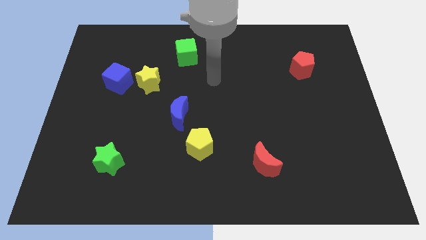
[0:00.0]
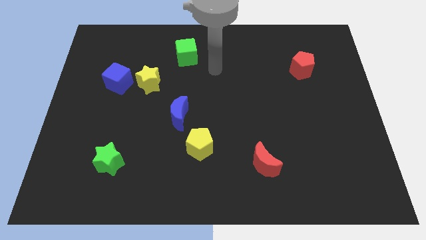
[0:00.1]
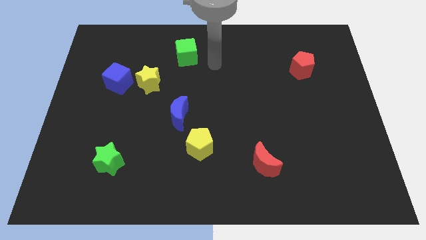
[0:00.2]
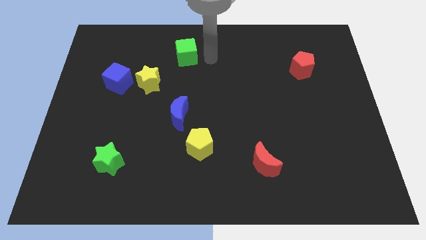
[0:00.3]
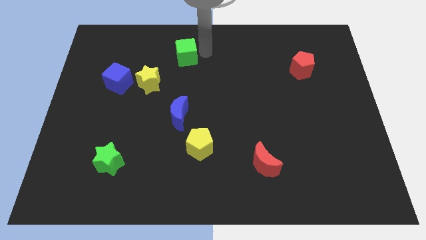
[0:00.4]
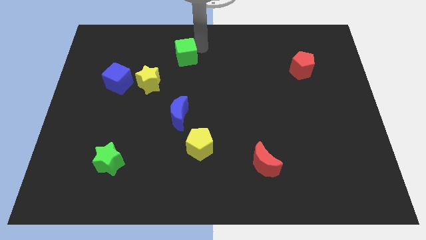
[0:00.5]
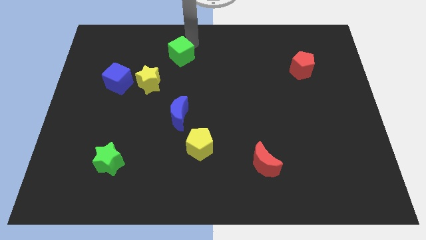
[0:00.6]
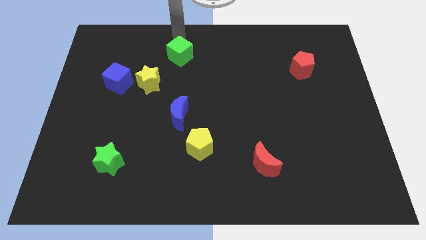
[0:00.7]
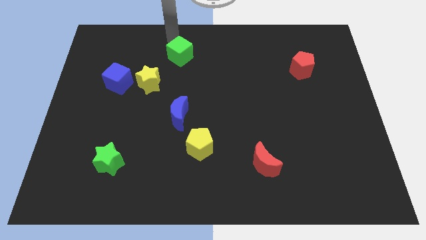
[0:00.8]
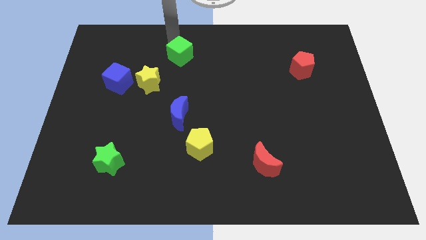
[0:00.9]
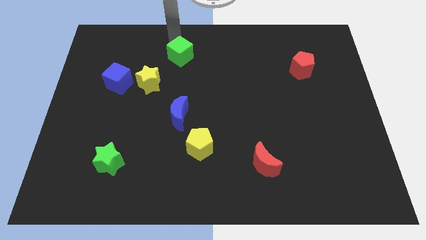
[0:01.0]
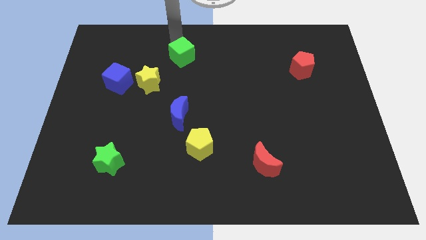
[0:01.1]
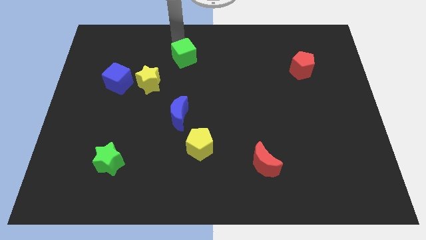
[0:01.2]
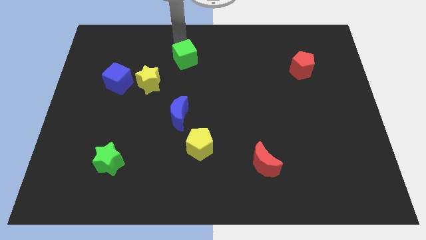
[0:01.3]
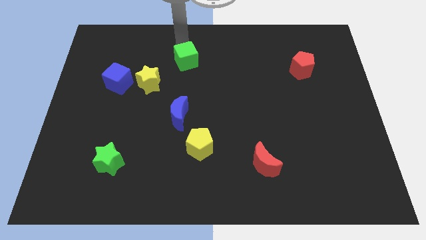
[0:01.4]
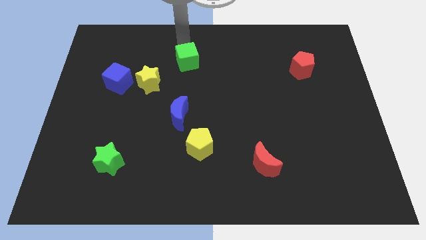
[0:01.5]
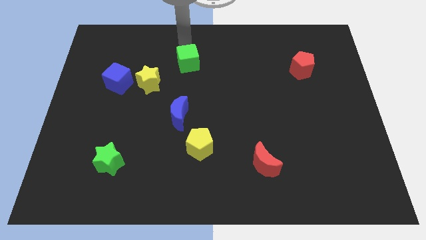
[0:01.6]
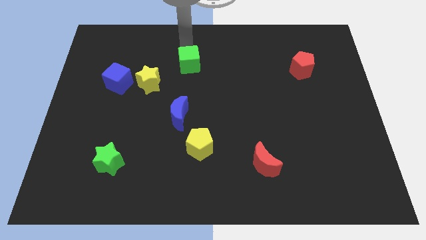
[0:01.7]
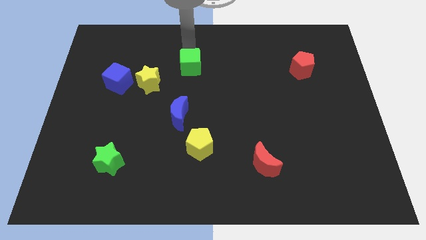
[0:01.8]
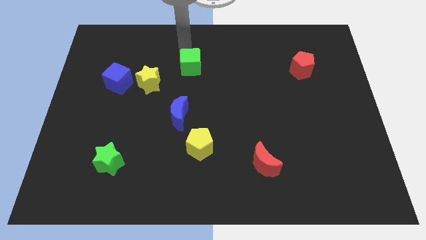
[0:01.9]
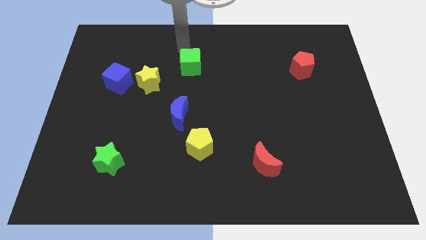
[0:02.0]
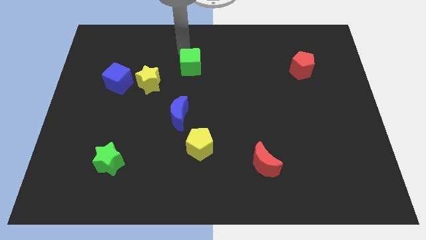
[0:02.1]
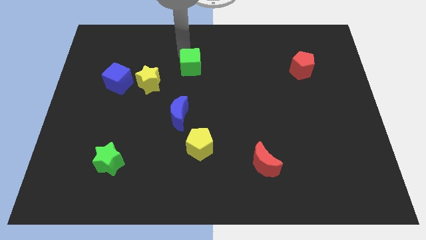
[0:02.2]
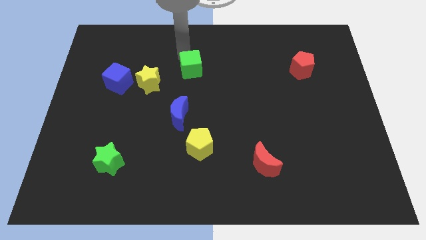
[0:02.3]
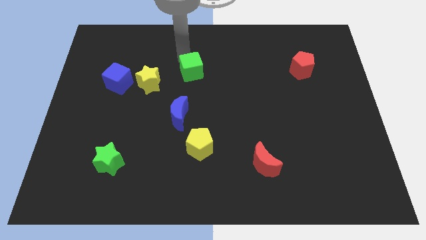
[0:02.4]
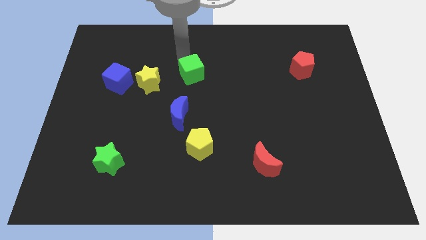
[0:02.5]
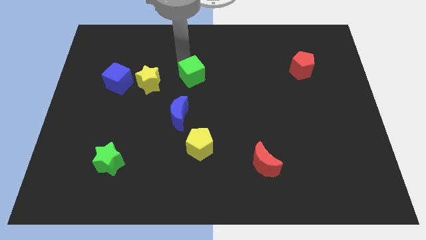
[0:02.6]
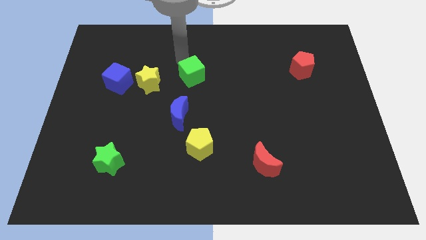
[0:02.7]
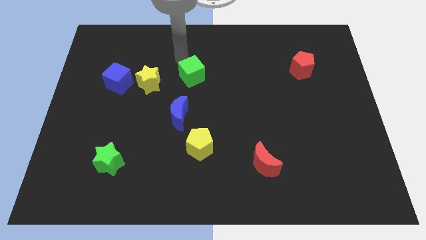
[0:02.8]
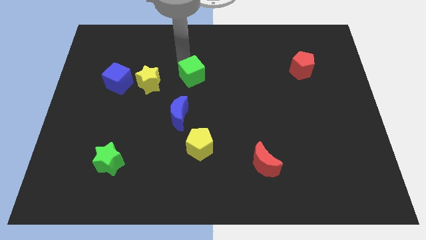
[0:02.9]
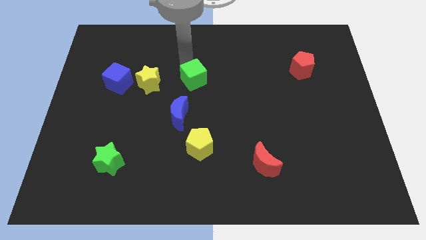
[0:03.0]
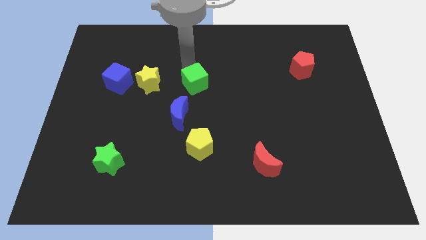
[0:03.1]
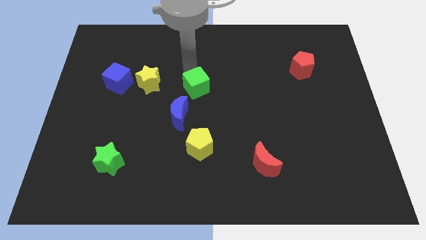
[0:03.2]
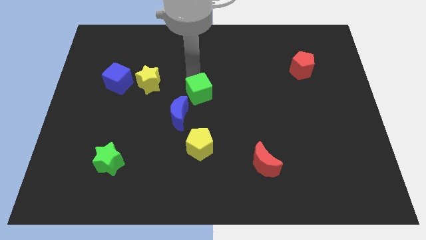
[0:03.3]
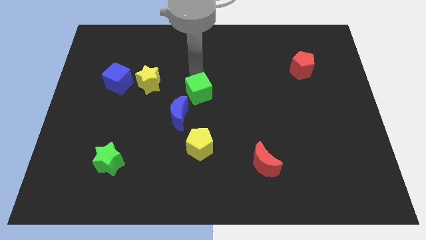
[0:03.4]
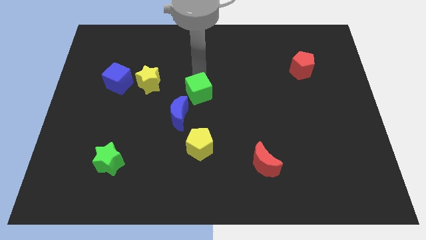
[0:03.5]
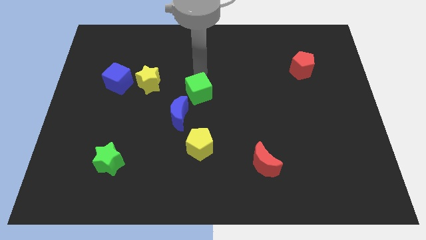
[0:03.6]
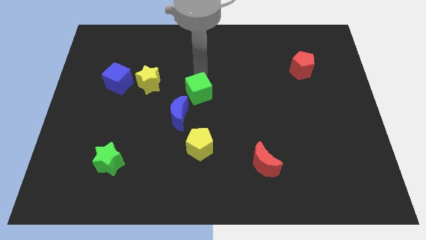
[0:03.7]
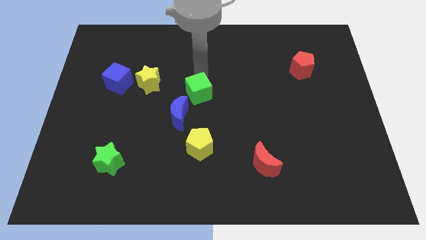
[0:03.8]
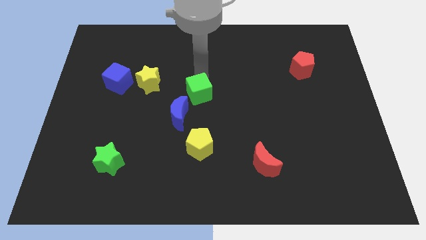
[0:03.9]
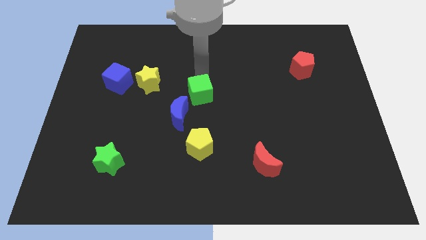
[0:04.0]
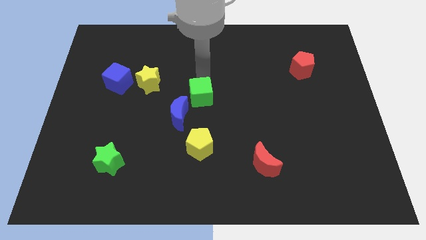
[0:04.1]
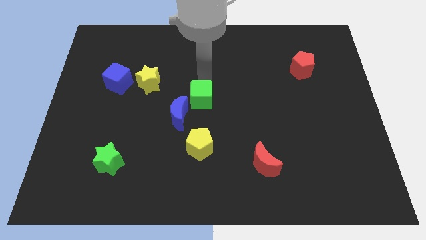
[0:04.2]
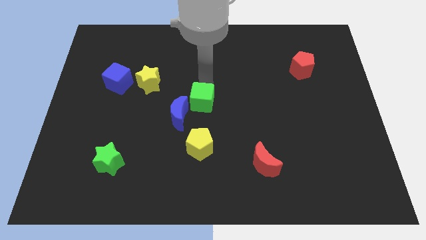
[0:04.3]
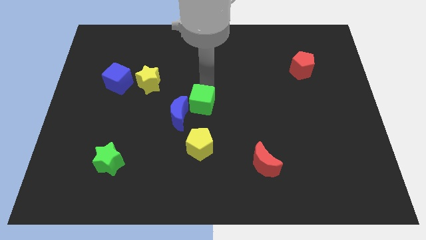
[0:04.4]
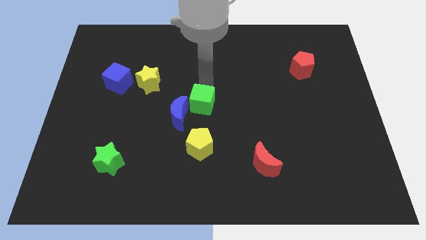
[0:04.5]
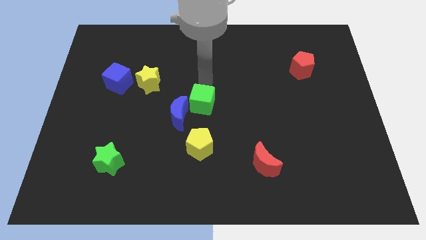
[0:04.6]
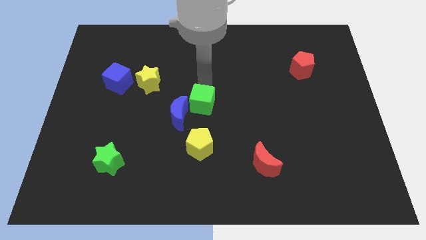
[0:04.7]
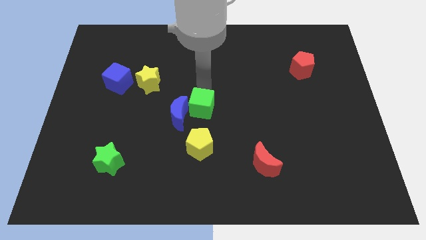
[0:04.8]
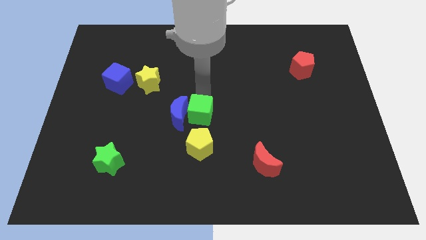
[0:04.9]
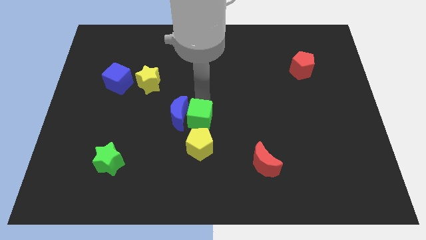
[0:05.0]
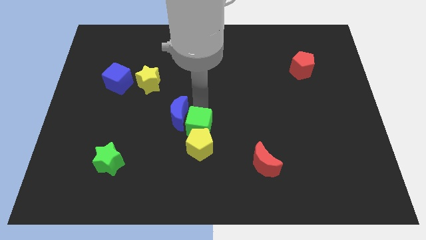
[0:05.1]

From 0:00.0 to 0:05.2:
push the green cube next to the yellow pentagon

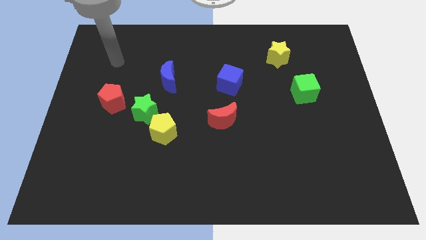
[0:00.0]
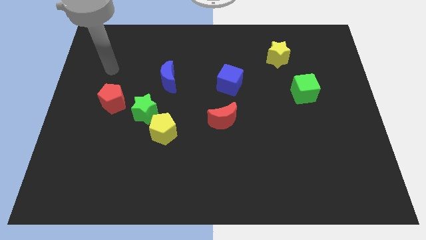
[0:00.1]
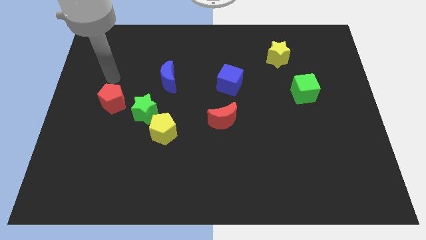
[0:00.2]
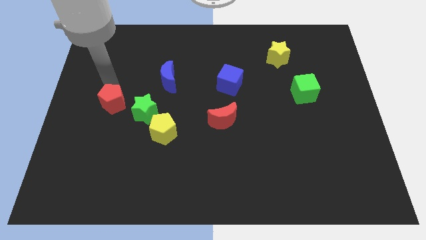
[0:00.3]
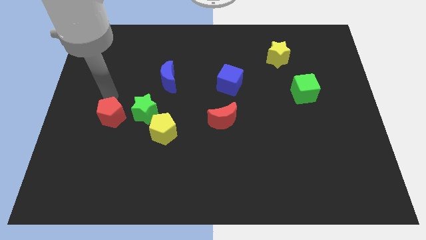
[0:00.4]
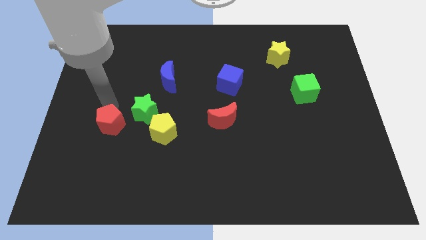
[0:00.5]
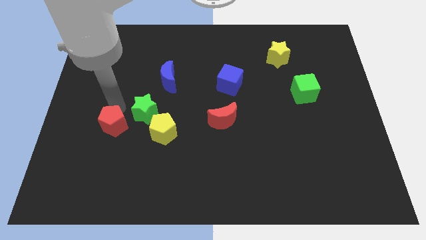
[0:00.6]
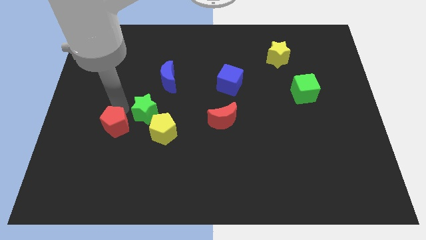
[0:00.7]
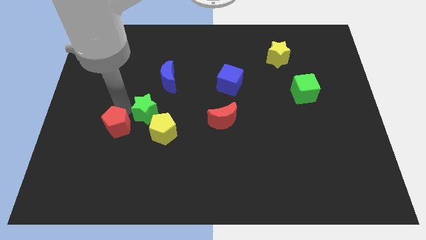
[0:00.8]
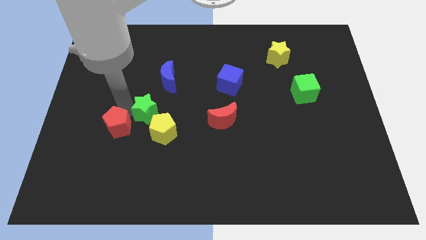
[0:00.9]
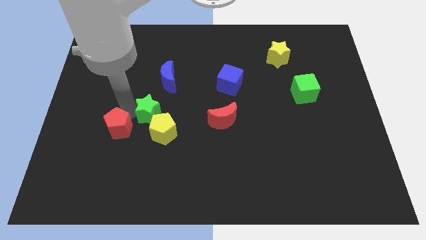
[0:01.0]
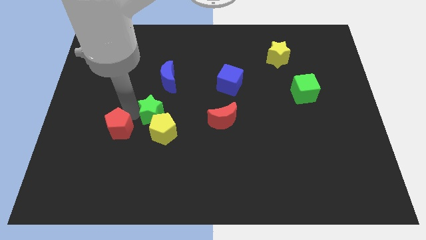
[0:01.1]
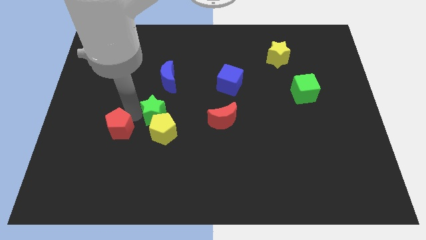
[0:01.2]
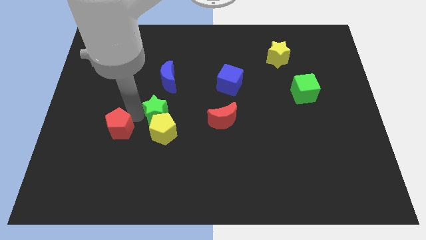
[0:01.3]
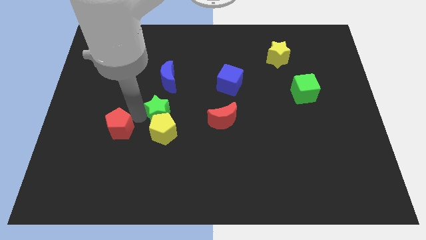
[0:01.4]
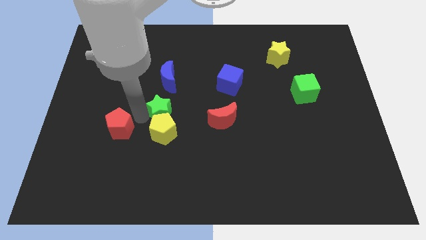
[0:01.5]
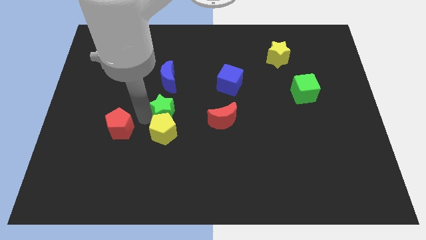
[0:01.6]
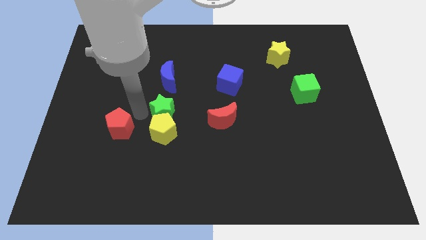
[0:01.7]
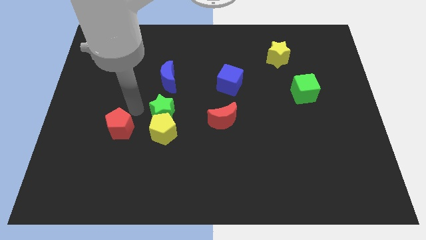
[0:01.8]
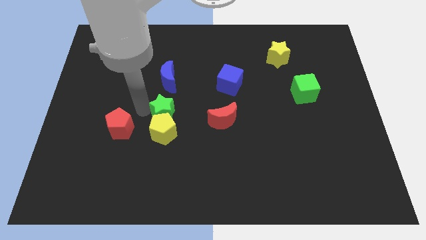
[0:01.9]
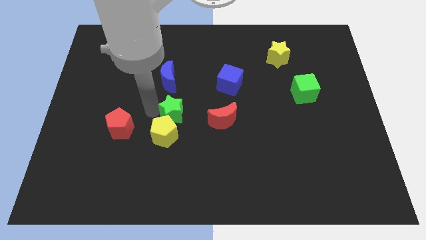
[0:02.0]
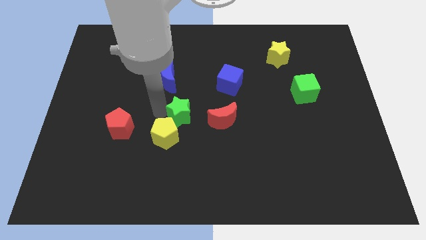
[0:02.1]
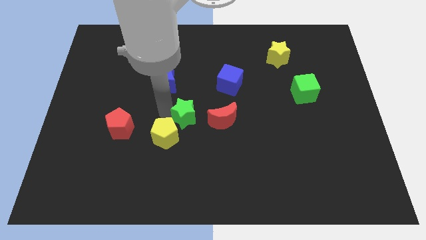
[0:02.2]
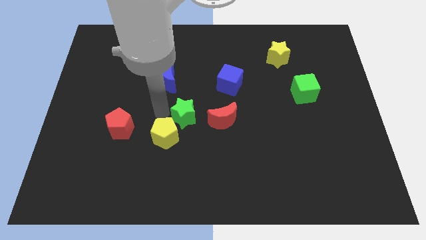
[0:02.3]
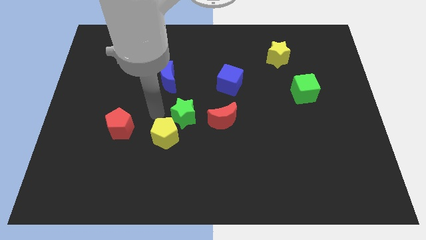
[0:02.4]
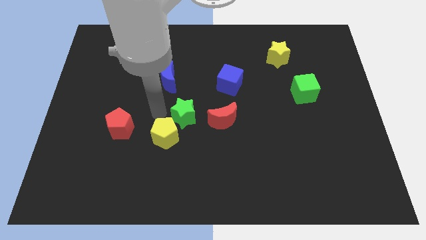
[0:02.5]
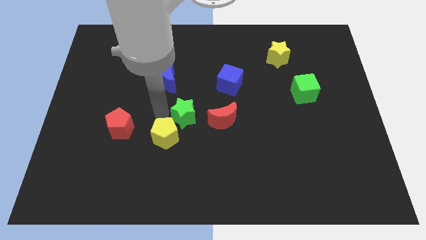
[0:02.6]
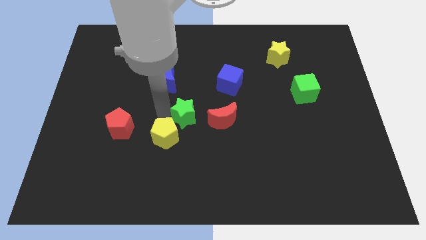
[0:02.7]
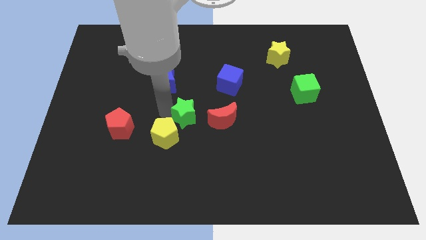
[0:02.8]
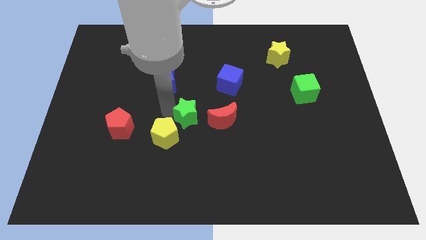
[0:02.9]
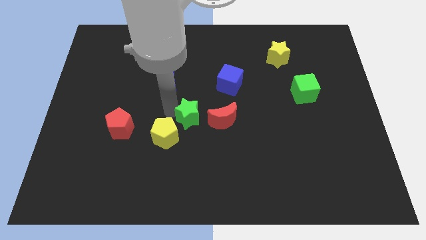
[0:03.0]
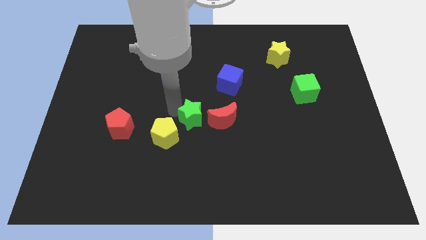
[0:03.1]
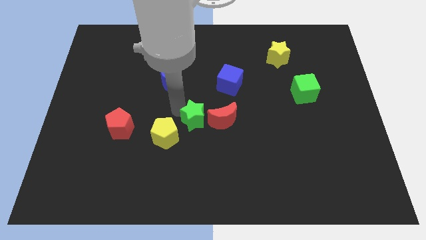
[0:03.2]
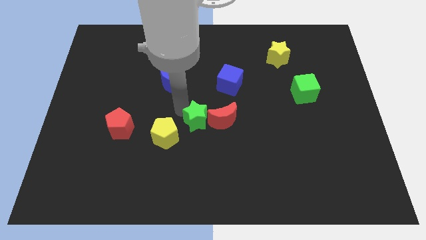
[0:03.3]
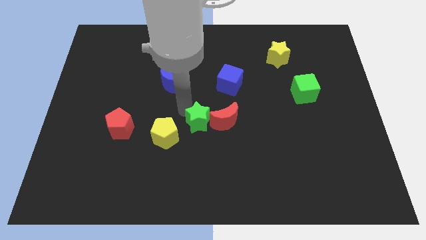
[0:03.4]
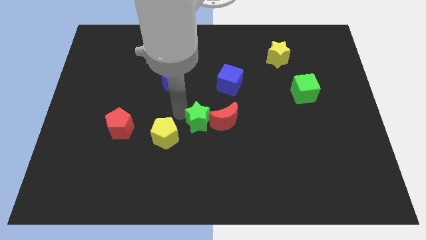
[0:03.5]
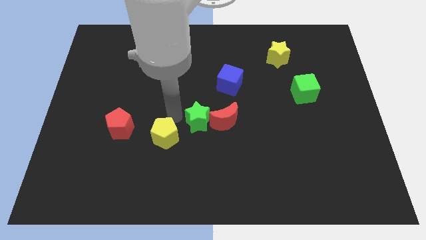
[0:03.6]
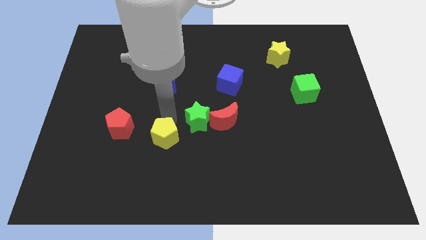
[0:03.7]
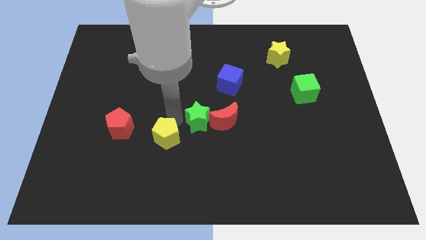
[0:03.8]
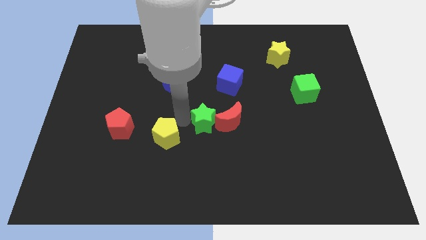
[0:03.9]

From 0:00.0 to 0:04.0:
slide the green star close to the red moon
